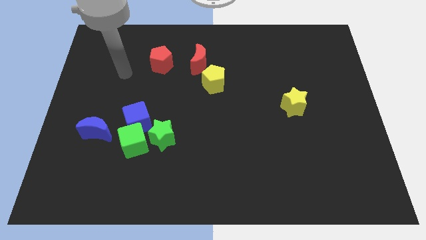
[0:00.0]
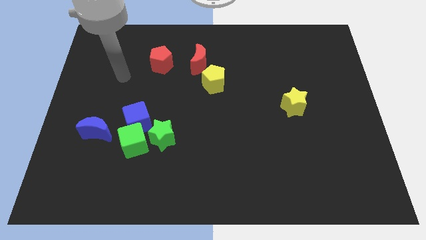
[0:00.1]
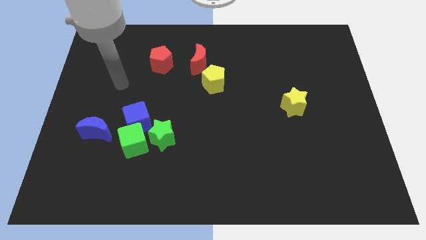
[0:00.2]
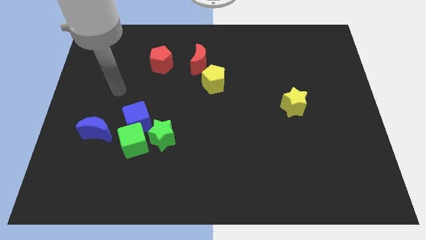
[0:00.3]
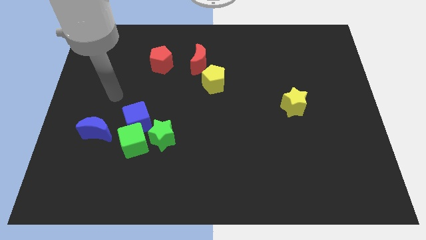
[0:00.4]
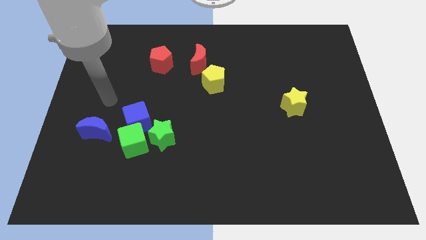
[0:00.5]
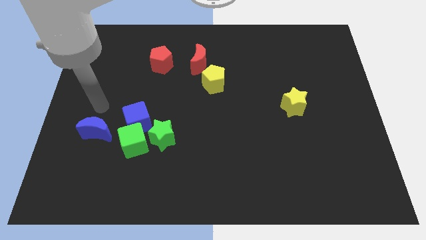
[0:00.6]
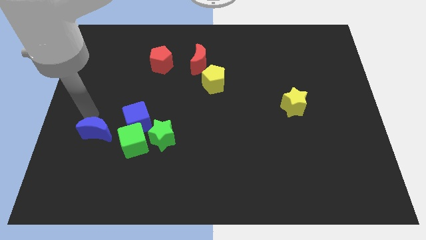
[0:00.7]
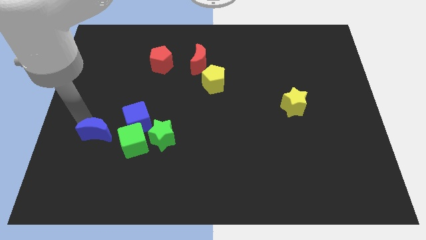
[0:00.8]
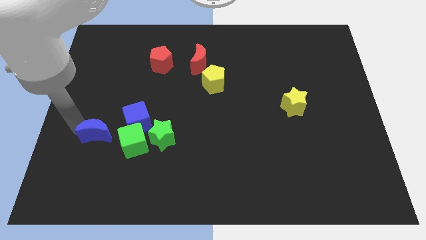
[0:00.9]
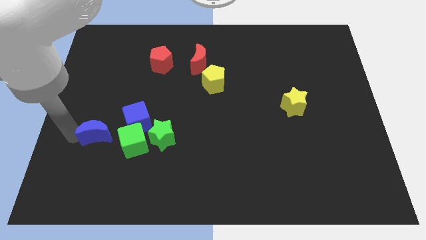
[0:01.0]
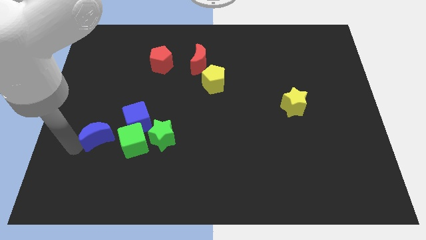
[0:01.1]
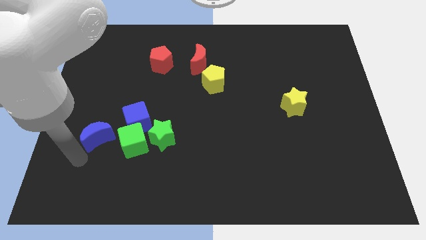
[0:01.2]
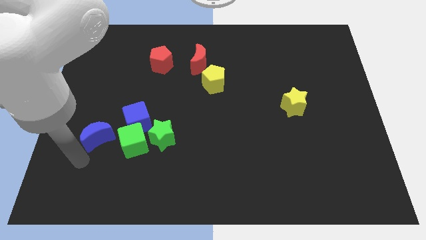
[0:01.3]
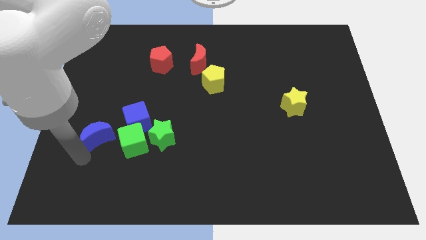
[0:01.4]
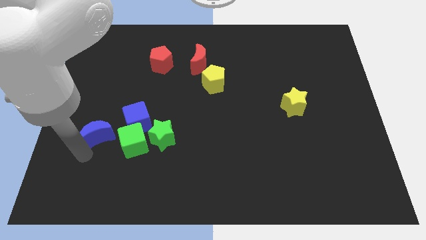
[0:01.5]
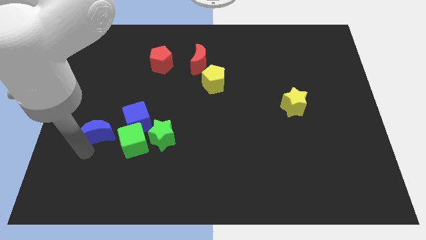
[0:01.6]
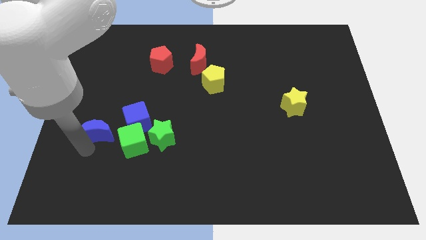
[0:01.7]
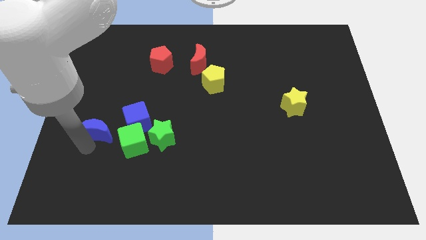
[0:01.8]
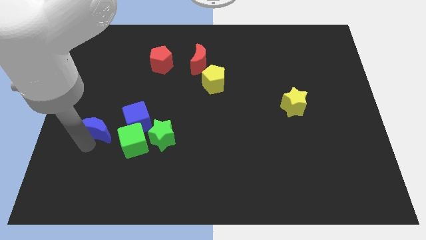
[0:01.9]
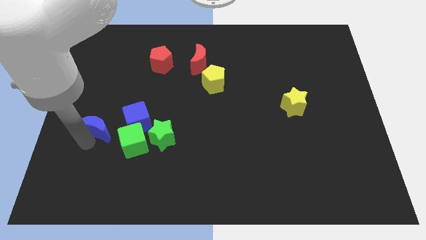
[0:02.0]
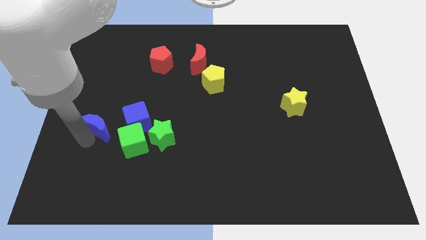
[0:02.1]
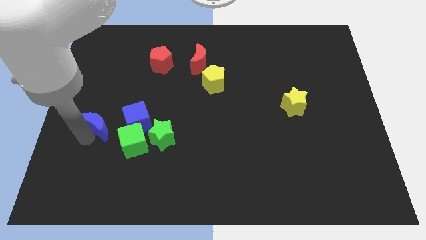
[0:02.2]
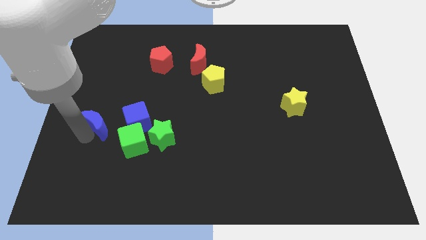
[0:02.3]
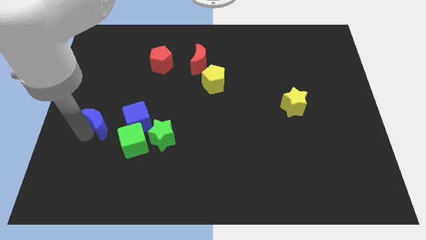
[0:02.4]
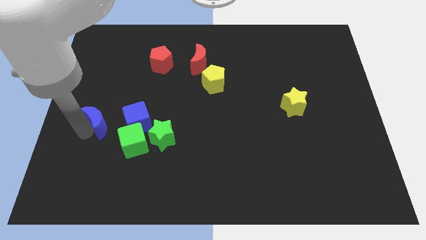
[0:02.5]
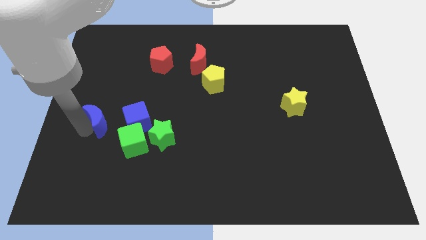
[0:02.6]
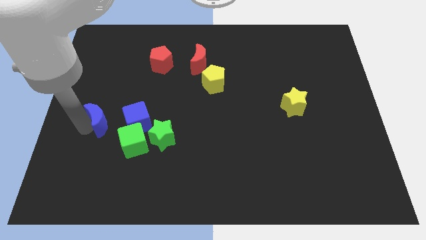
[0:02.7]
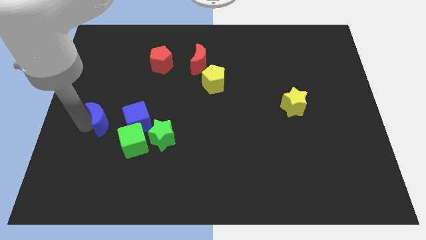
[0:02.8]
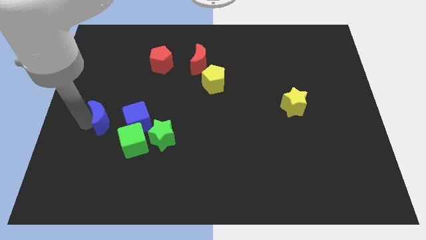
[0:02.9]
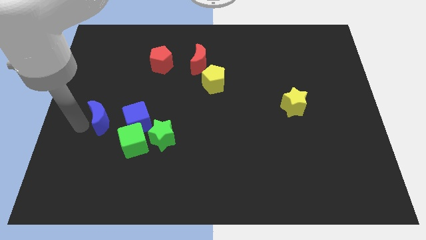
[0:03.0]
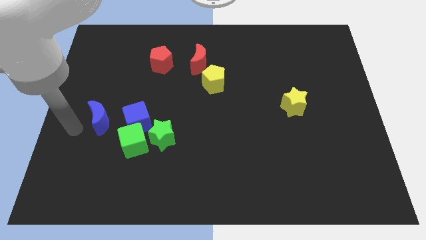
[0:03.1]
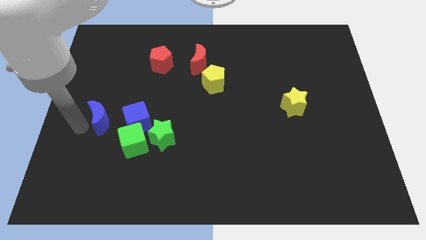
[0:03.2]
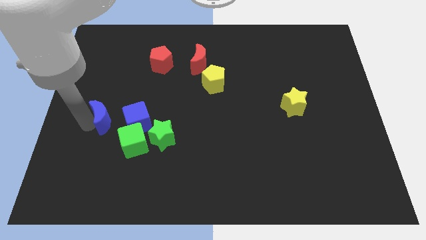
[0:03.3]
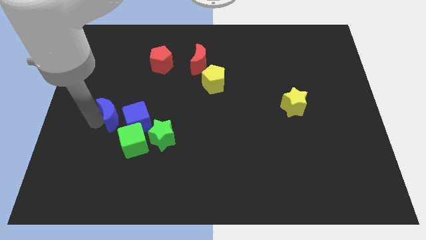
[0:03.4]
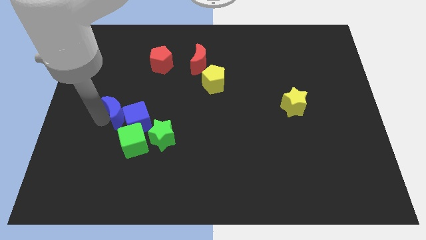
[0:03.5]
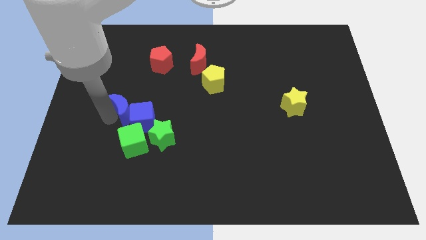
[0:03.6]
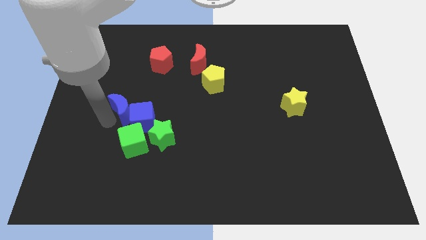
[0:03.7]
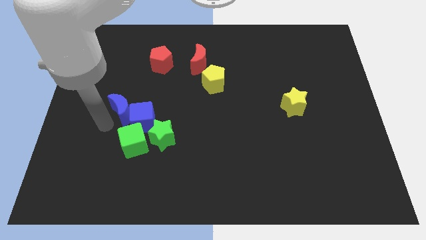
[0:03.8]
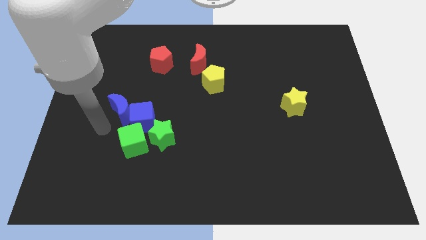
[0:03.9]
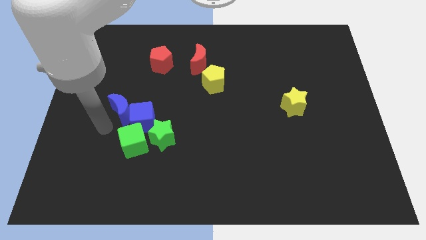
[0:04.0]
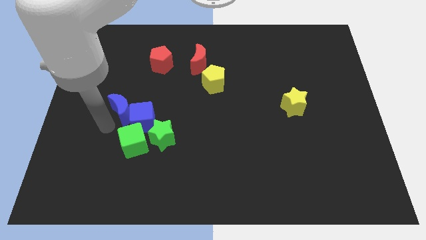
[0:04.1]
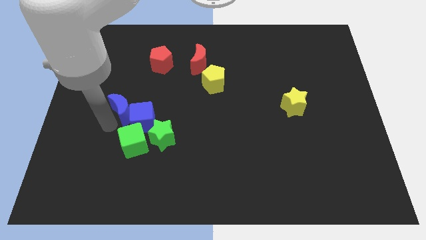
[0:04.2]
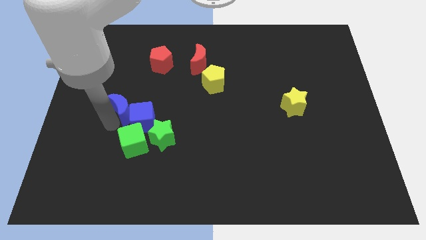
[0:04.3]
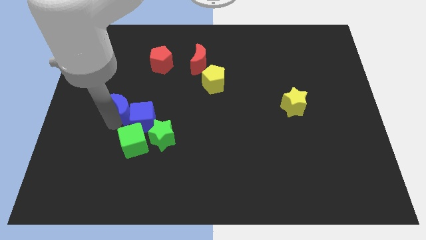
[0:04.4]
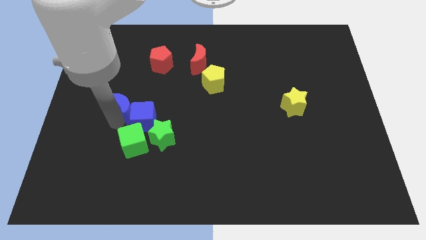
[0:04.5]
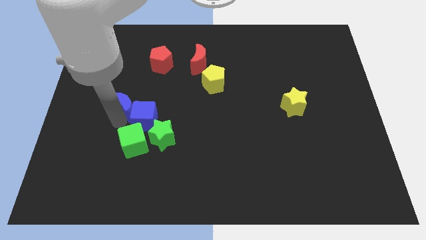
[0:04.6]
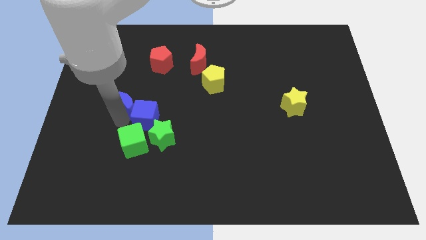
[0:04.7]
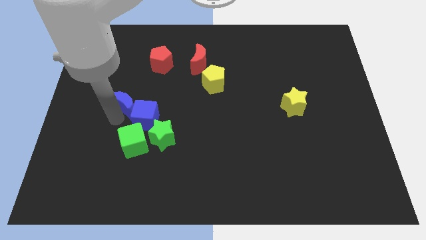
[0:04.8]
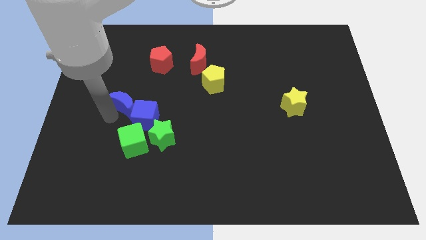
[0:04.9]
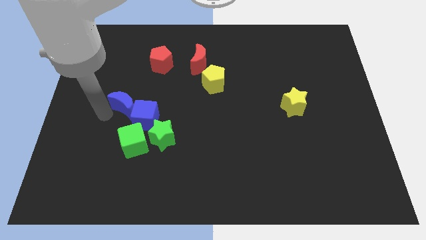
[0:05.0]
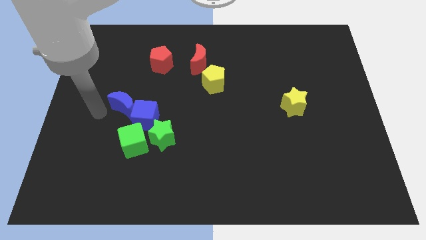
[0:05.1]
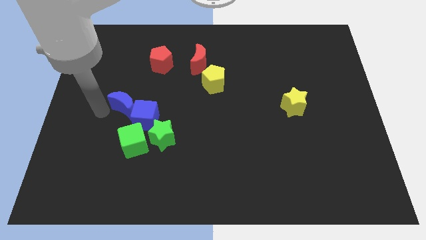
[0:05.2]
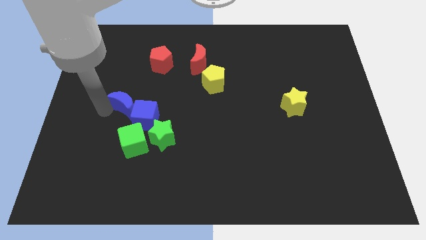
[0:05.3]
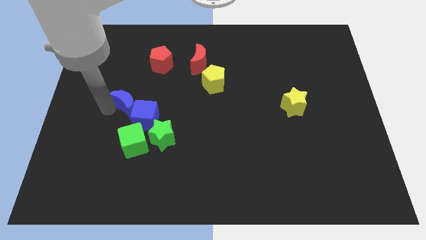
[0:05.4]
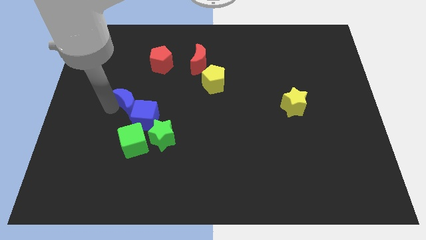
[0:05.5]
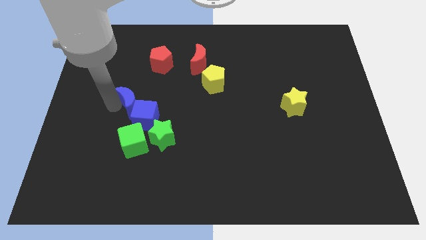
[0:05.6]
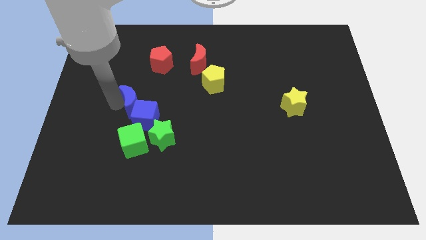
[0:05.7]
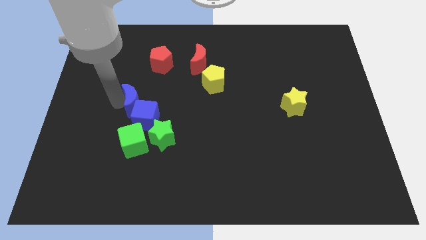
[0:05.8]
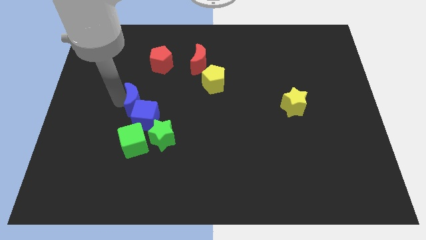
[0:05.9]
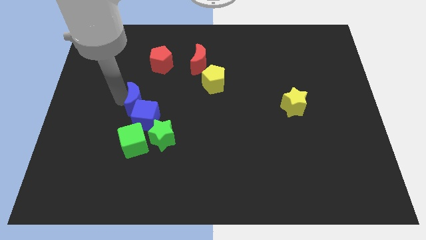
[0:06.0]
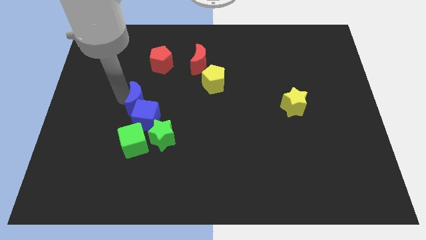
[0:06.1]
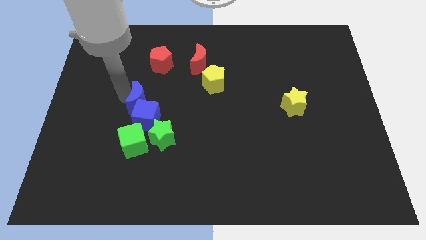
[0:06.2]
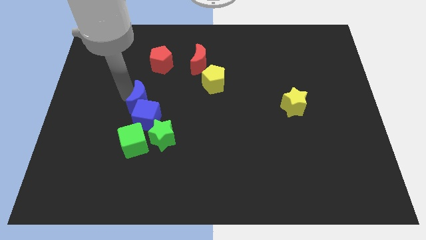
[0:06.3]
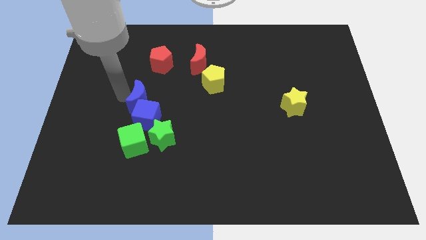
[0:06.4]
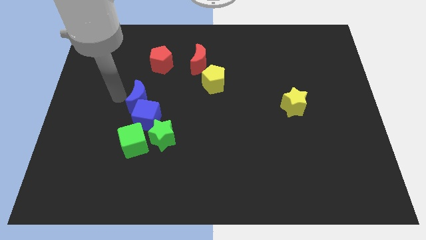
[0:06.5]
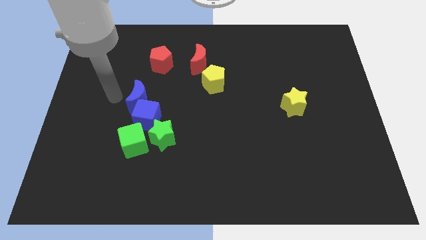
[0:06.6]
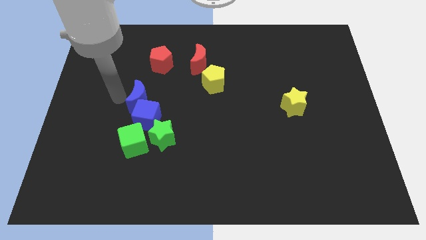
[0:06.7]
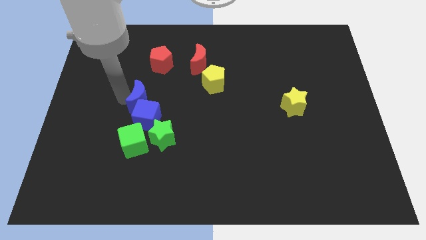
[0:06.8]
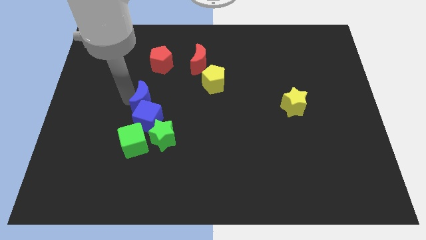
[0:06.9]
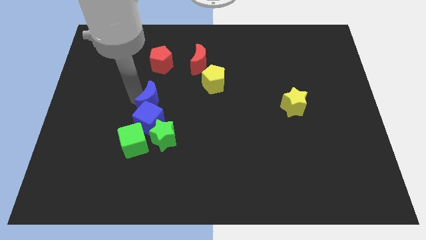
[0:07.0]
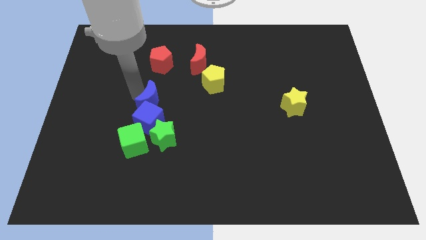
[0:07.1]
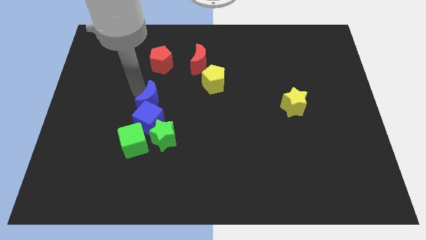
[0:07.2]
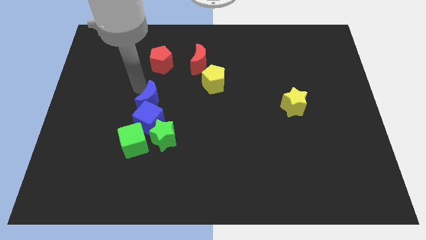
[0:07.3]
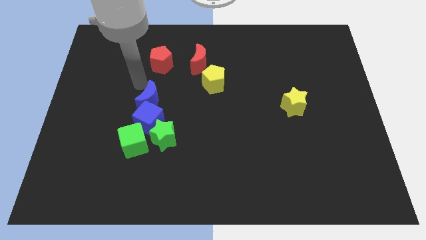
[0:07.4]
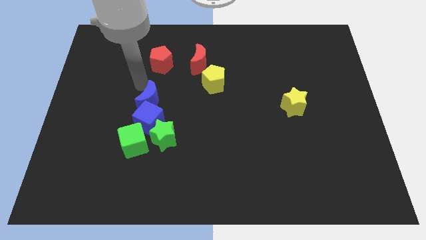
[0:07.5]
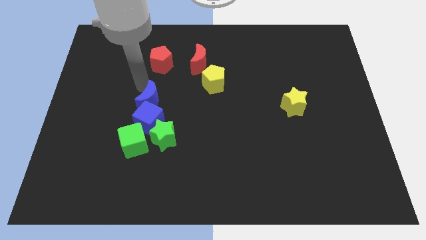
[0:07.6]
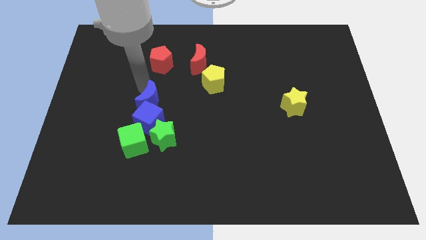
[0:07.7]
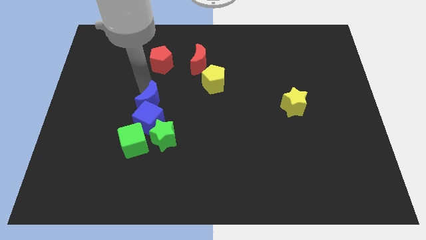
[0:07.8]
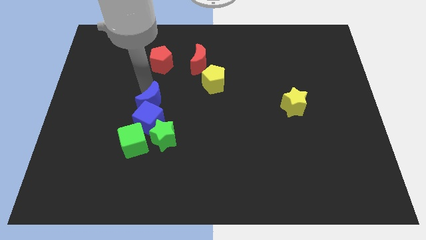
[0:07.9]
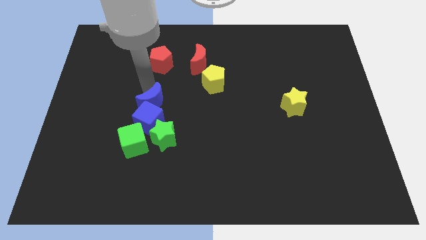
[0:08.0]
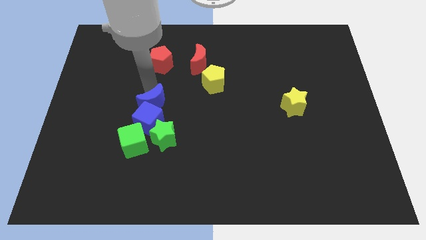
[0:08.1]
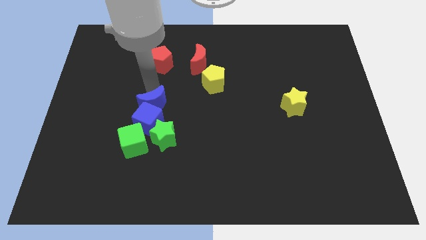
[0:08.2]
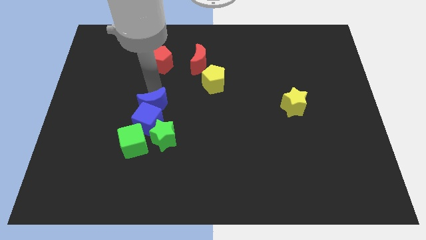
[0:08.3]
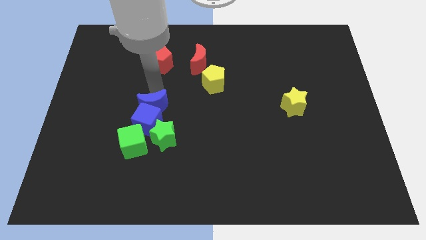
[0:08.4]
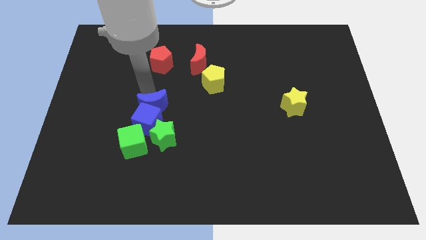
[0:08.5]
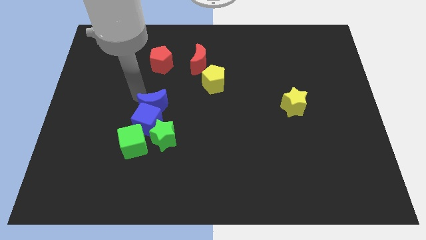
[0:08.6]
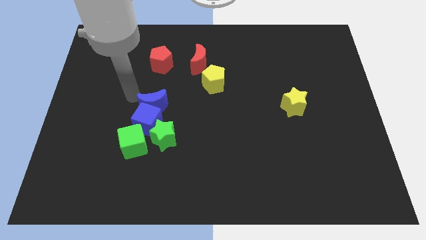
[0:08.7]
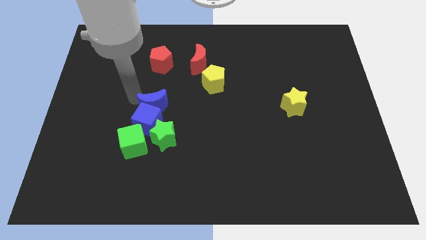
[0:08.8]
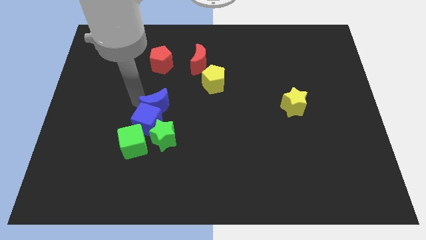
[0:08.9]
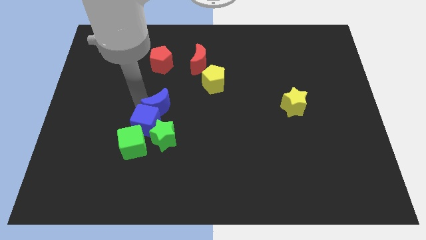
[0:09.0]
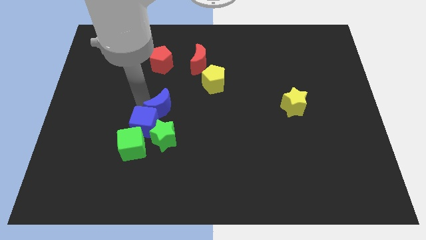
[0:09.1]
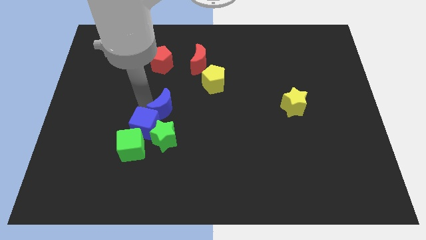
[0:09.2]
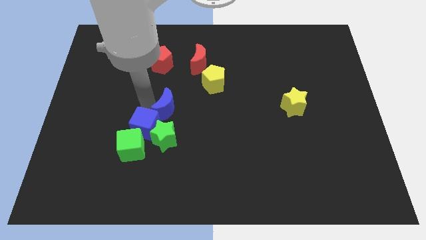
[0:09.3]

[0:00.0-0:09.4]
move the blue moon right of the blue cube
